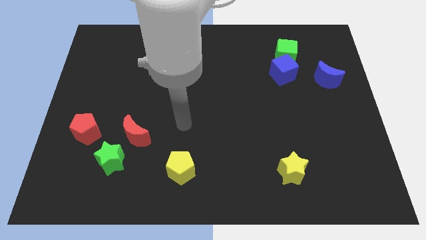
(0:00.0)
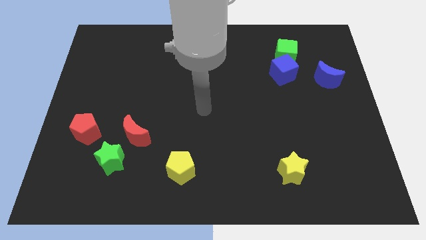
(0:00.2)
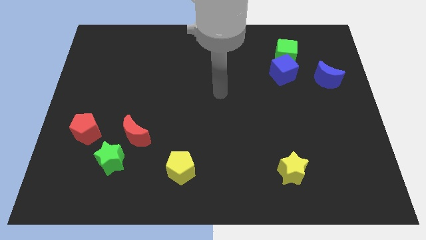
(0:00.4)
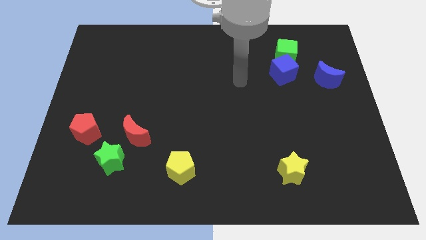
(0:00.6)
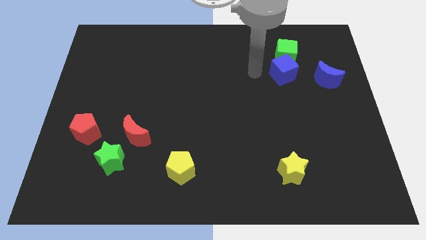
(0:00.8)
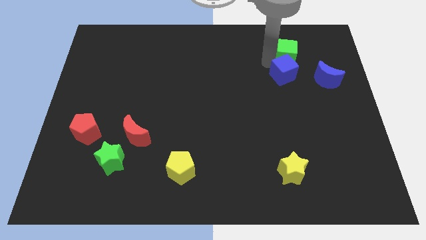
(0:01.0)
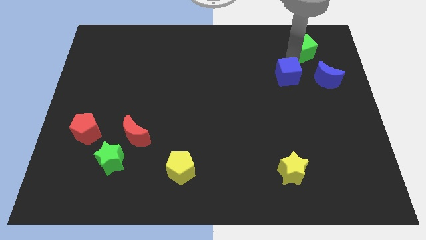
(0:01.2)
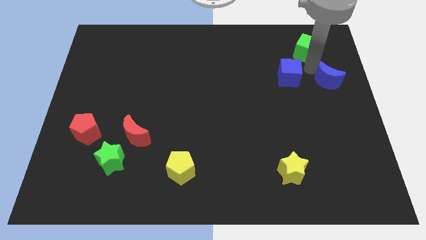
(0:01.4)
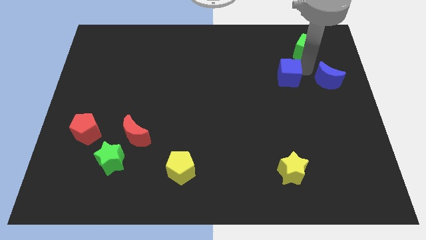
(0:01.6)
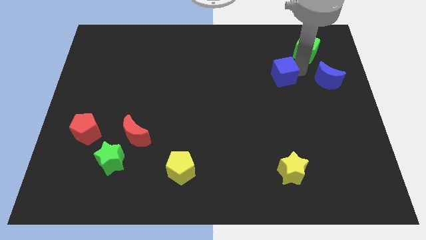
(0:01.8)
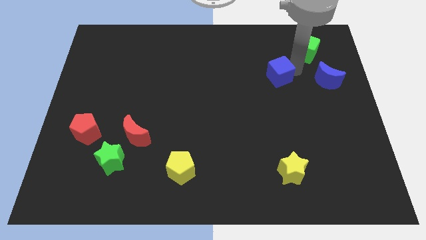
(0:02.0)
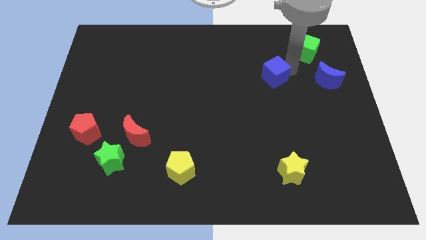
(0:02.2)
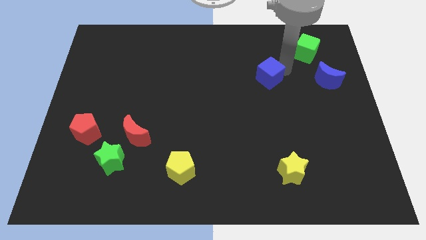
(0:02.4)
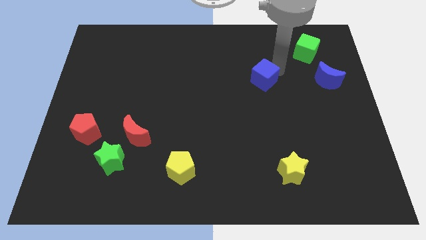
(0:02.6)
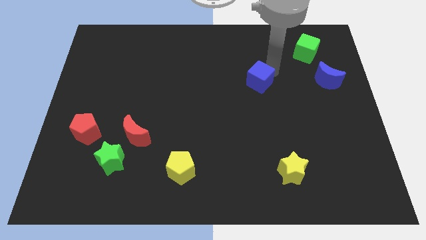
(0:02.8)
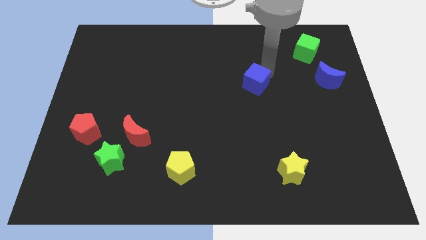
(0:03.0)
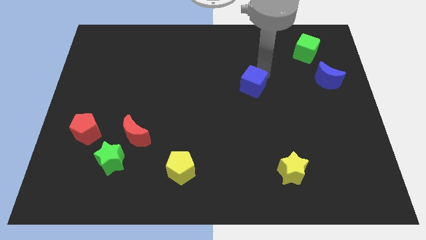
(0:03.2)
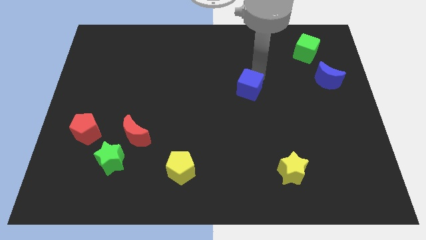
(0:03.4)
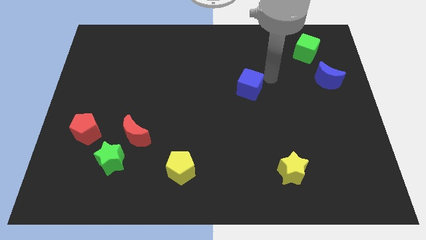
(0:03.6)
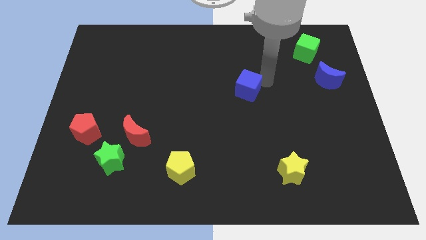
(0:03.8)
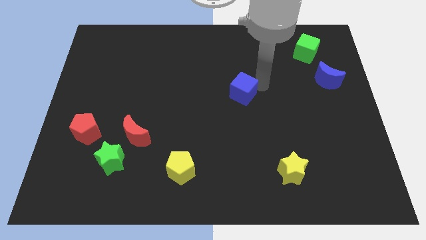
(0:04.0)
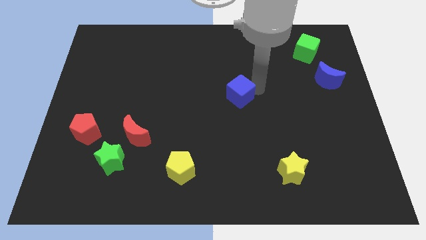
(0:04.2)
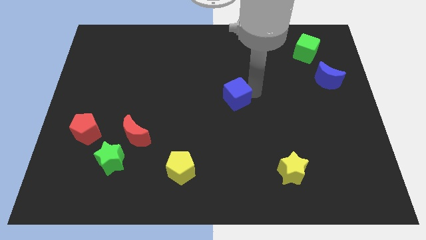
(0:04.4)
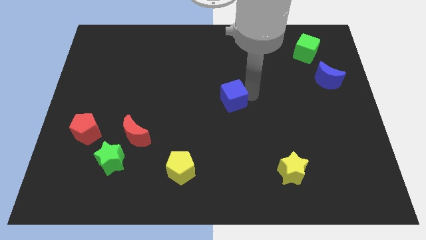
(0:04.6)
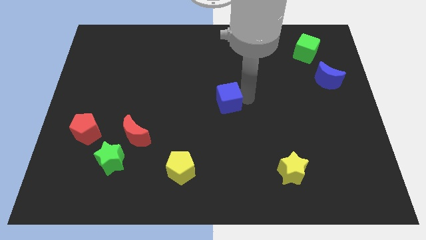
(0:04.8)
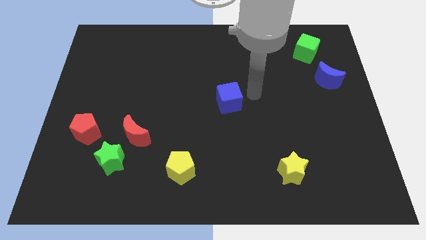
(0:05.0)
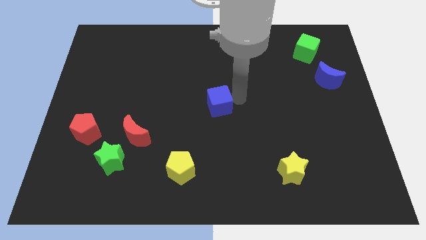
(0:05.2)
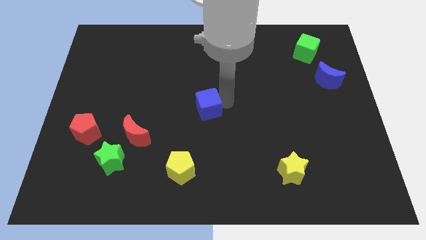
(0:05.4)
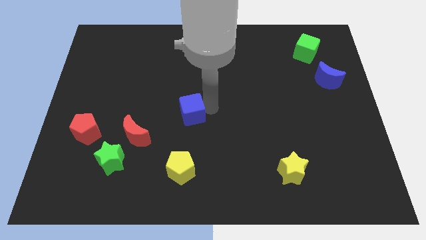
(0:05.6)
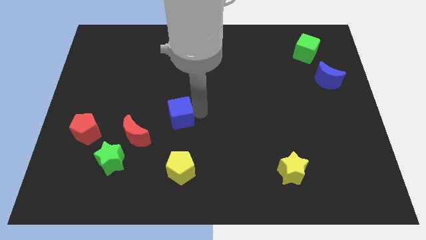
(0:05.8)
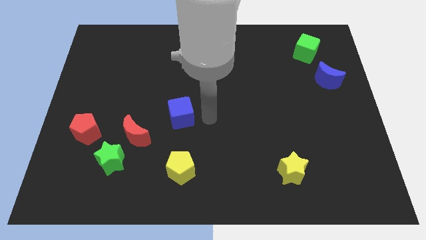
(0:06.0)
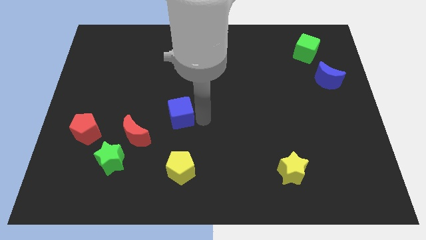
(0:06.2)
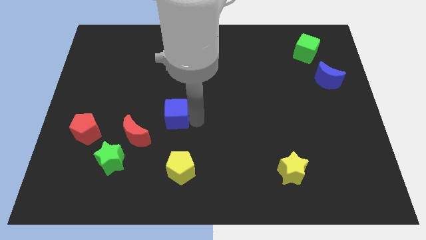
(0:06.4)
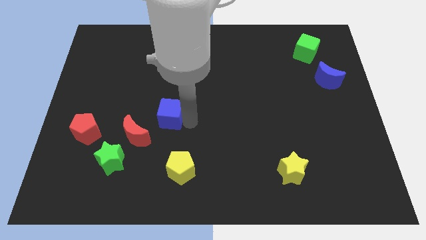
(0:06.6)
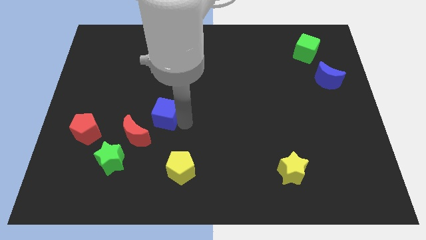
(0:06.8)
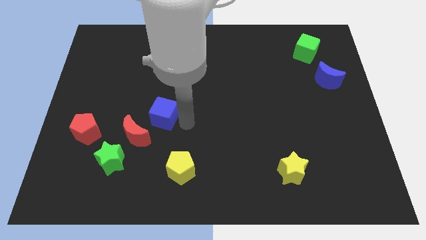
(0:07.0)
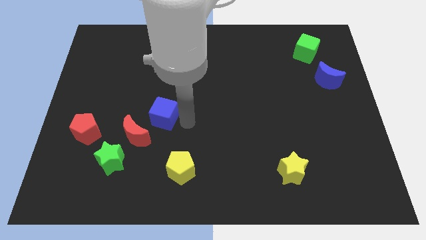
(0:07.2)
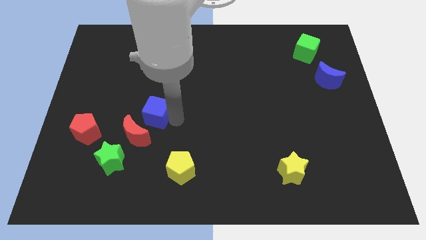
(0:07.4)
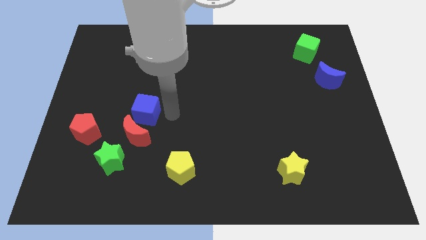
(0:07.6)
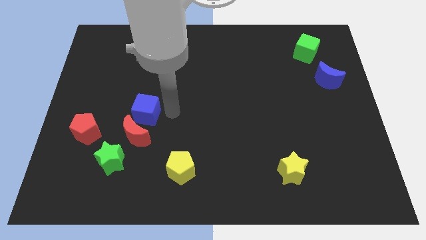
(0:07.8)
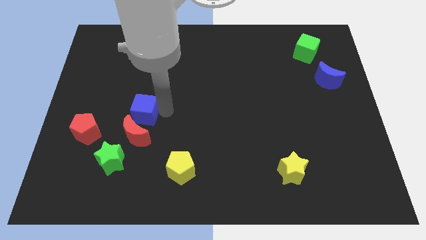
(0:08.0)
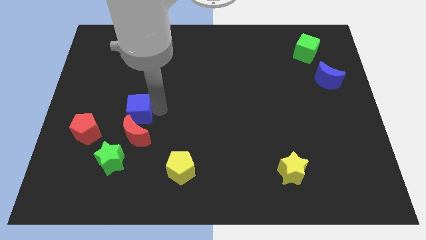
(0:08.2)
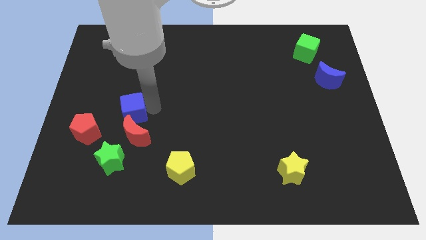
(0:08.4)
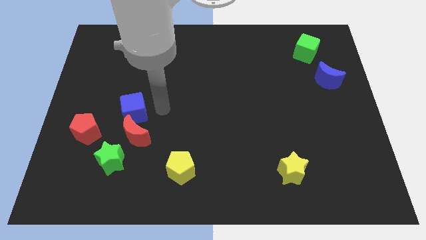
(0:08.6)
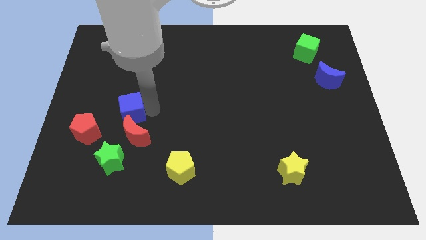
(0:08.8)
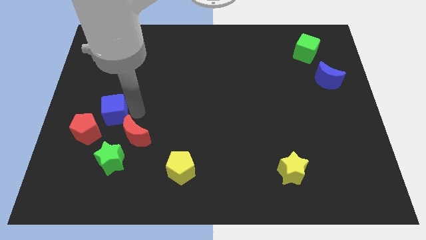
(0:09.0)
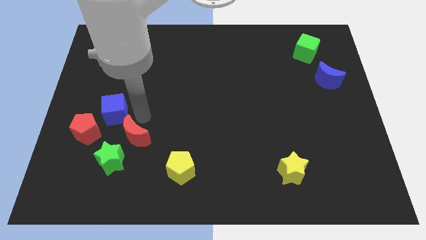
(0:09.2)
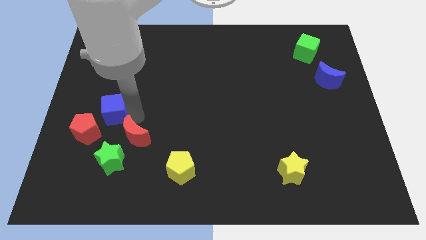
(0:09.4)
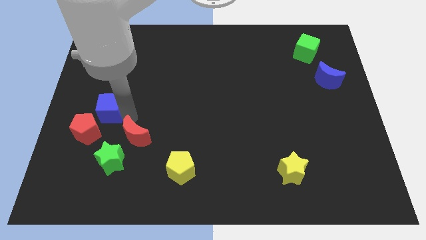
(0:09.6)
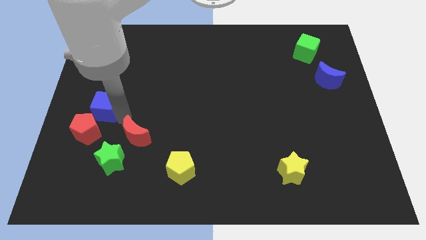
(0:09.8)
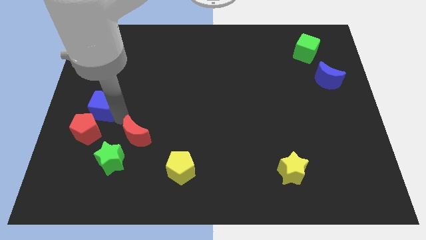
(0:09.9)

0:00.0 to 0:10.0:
put the blue cube to the center left

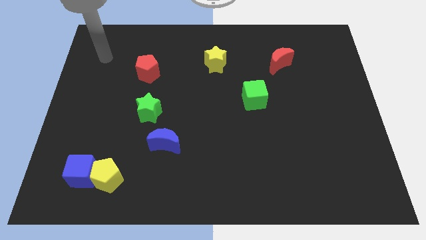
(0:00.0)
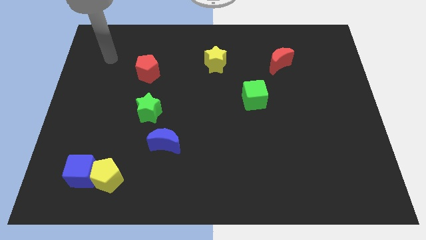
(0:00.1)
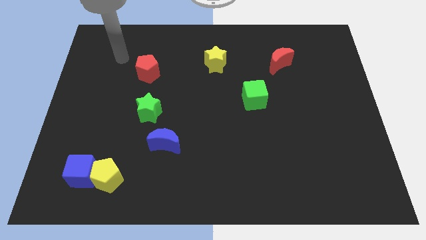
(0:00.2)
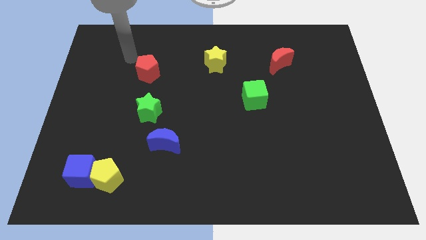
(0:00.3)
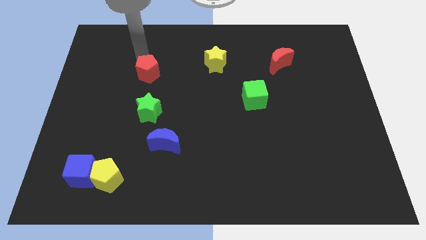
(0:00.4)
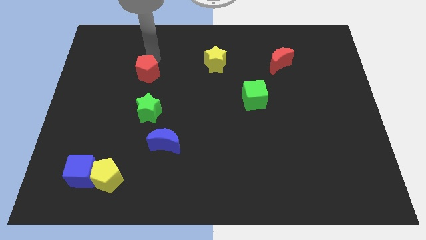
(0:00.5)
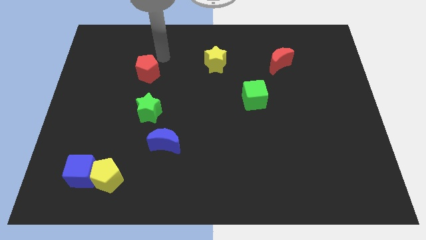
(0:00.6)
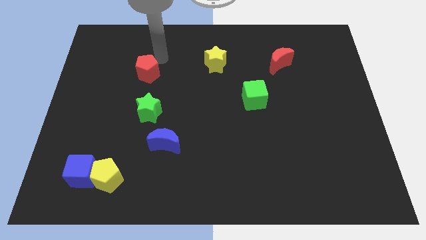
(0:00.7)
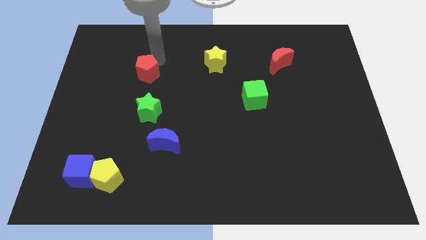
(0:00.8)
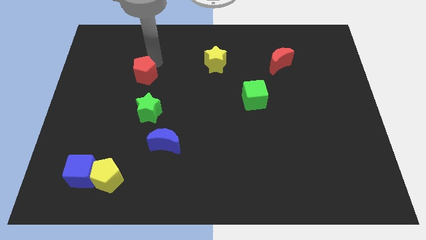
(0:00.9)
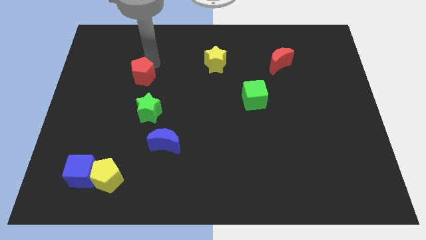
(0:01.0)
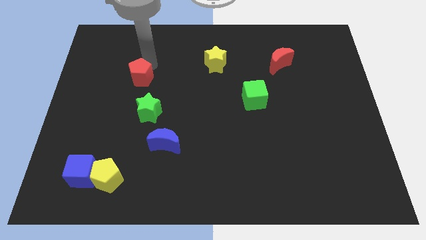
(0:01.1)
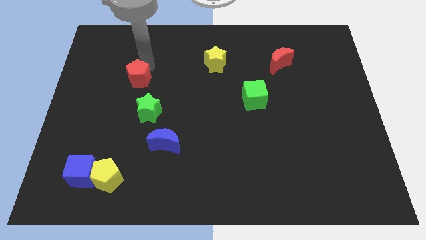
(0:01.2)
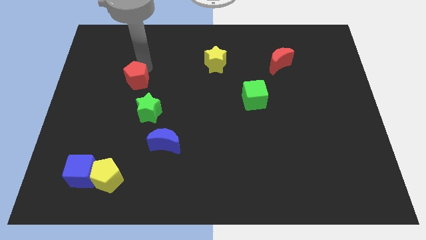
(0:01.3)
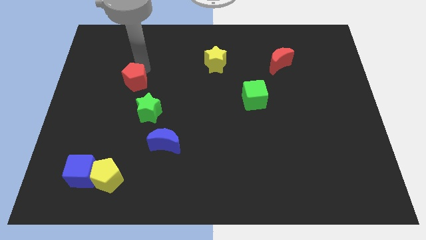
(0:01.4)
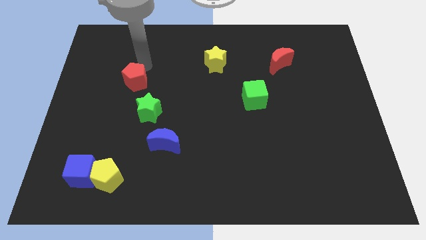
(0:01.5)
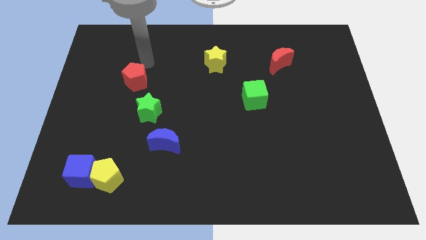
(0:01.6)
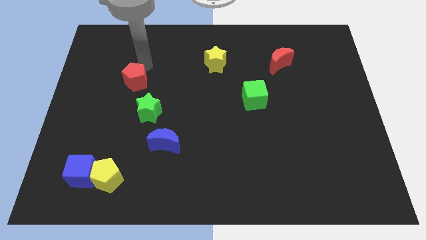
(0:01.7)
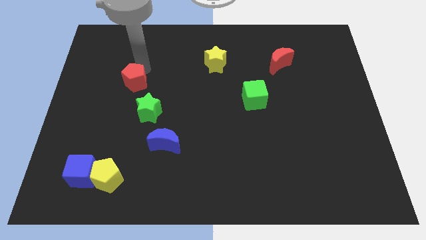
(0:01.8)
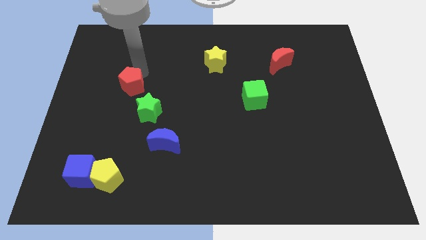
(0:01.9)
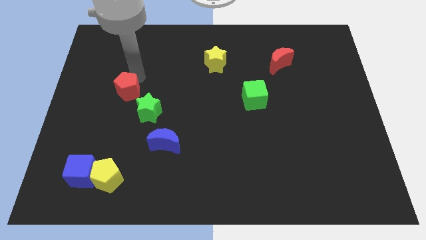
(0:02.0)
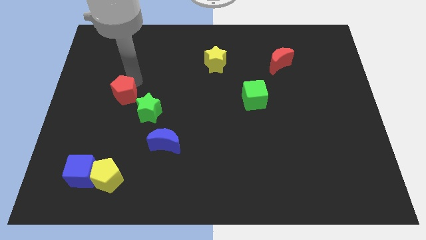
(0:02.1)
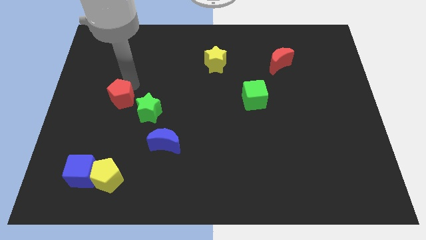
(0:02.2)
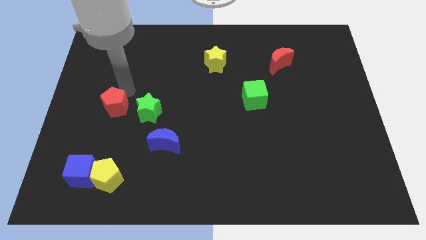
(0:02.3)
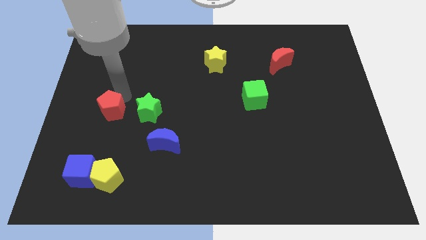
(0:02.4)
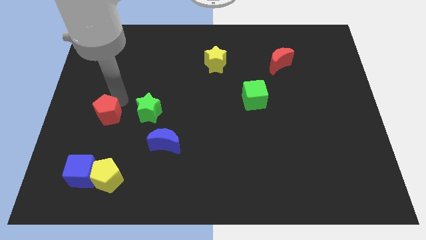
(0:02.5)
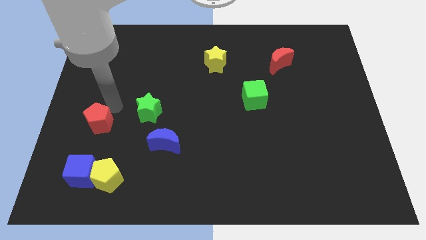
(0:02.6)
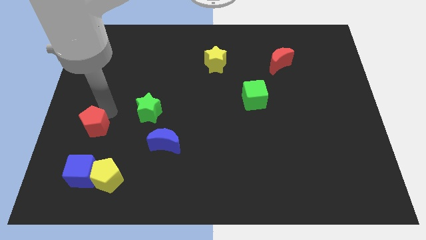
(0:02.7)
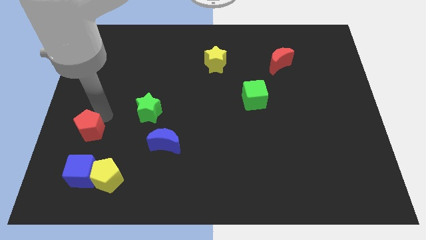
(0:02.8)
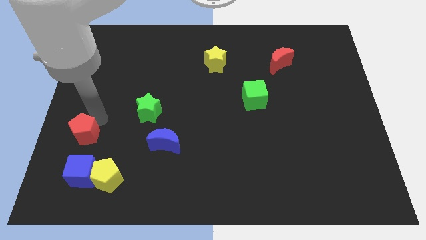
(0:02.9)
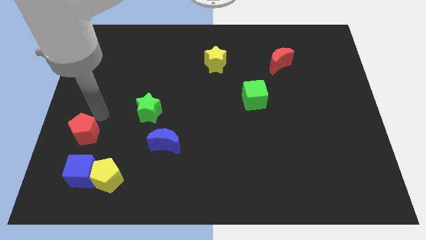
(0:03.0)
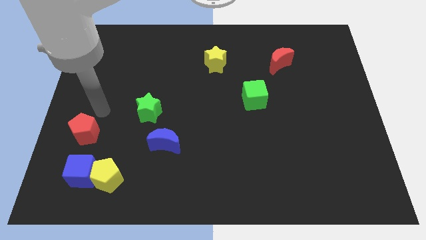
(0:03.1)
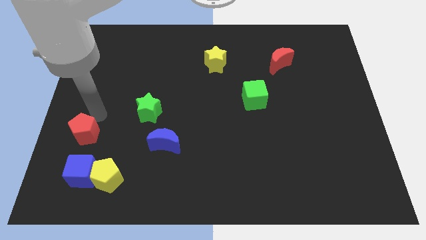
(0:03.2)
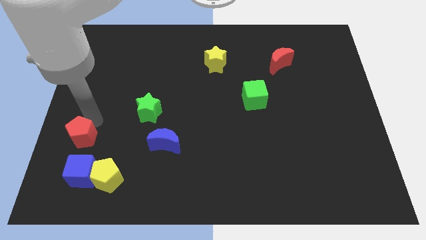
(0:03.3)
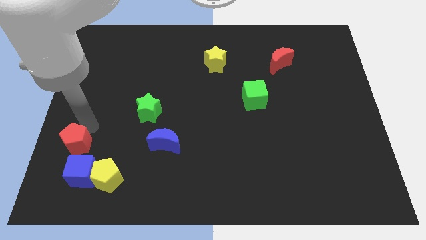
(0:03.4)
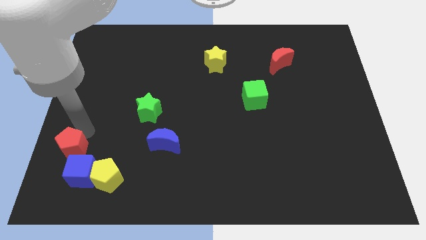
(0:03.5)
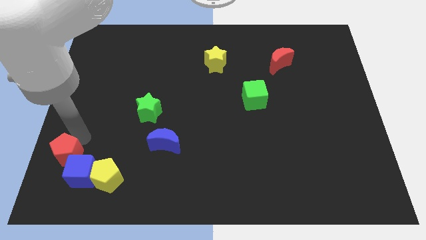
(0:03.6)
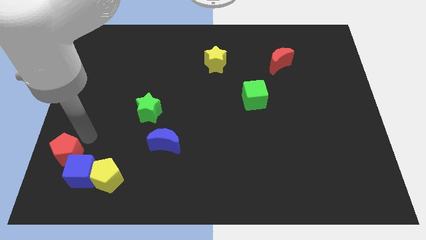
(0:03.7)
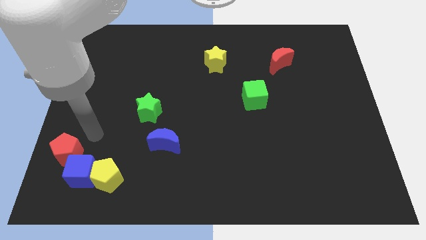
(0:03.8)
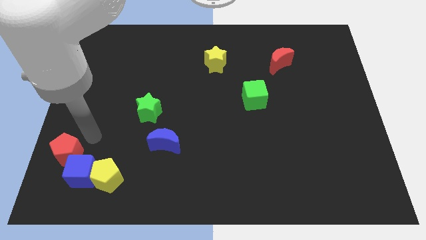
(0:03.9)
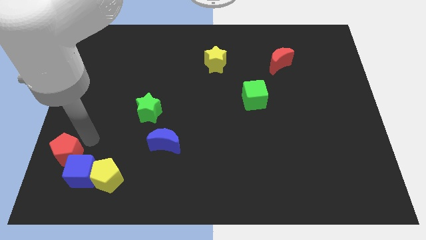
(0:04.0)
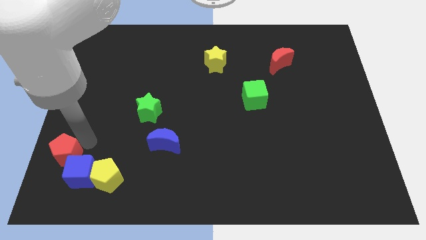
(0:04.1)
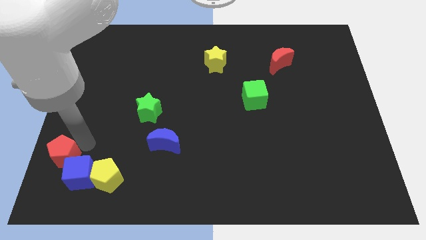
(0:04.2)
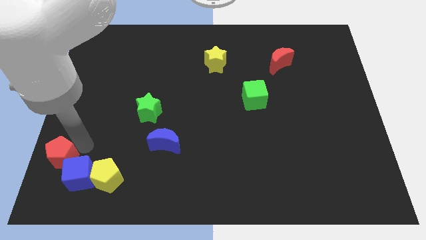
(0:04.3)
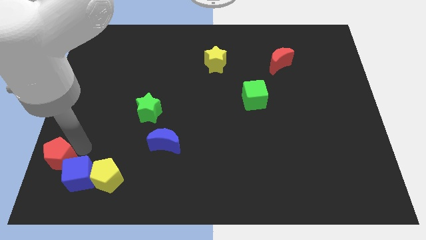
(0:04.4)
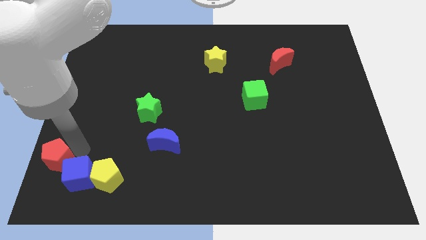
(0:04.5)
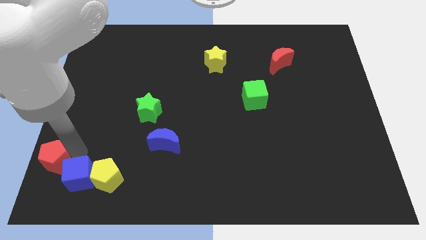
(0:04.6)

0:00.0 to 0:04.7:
put the red pentagon to the bottom left corner
